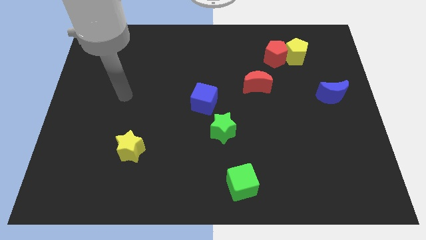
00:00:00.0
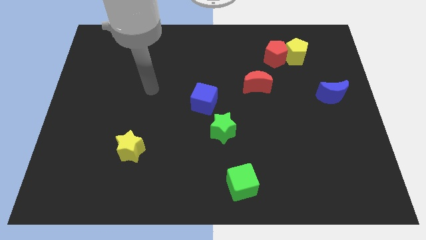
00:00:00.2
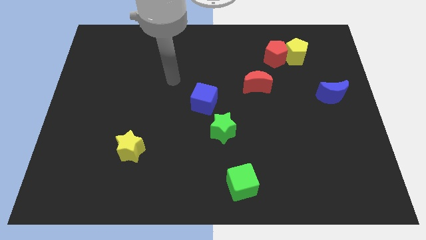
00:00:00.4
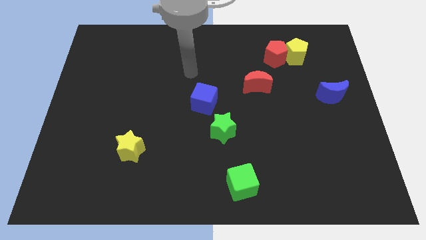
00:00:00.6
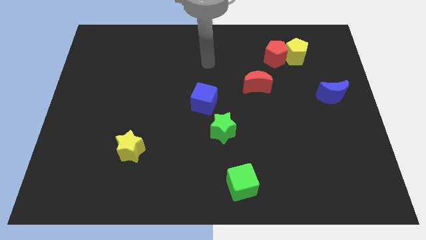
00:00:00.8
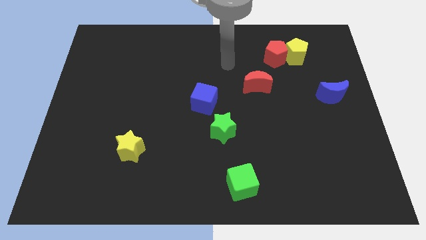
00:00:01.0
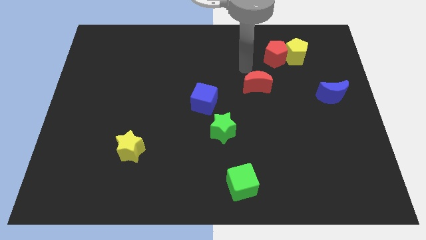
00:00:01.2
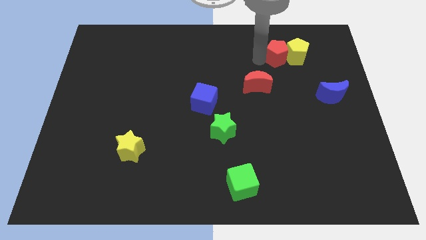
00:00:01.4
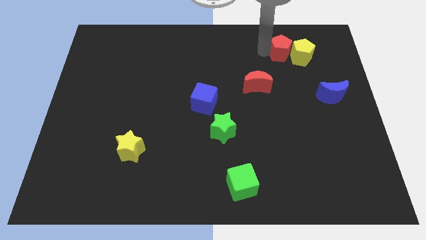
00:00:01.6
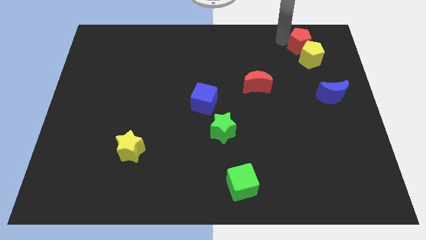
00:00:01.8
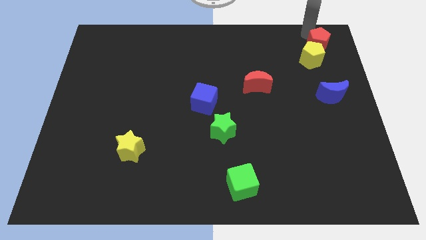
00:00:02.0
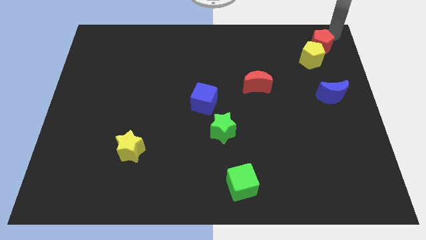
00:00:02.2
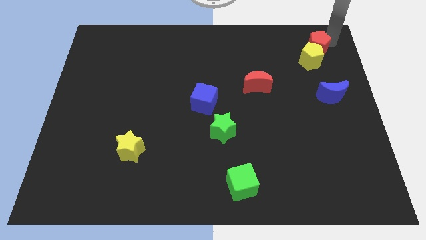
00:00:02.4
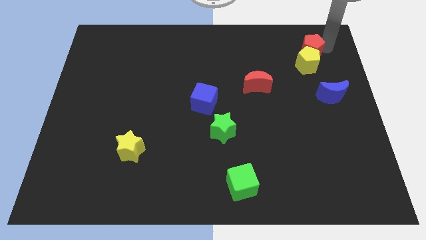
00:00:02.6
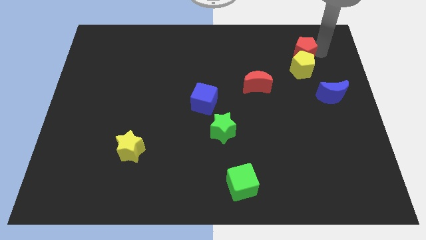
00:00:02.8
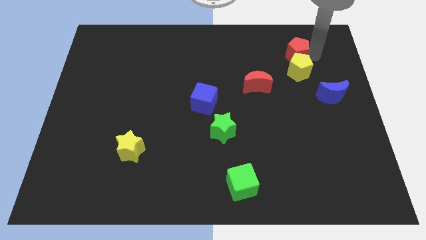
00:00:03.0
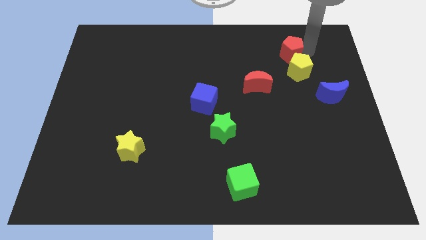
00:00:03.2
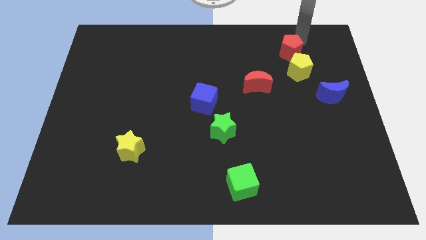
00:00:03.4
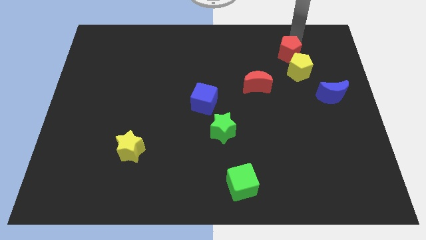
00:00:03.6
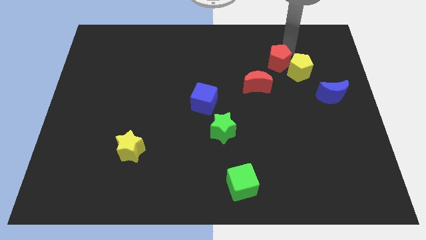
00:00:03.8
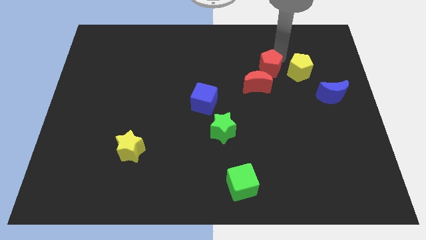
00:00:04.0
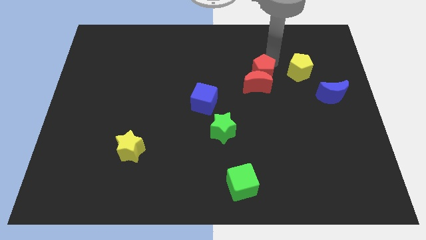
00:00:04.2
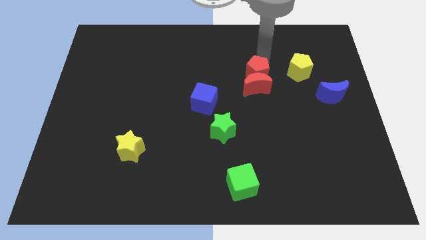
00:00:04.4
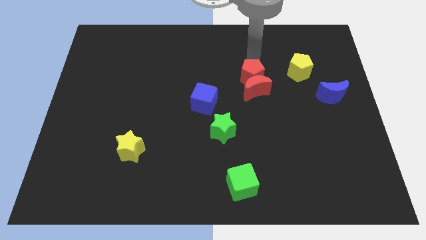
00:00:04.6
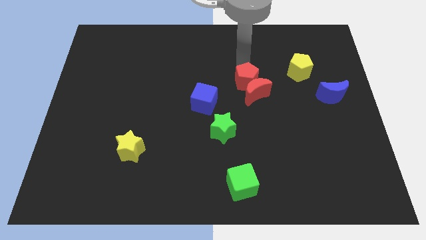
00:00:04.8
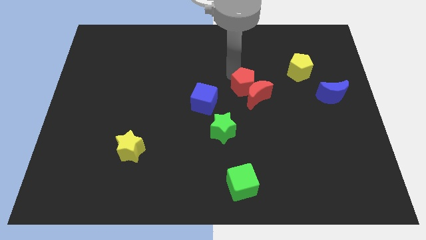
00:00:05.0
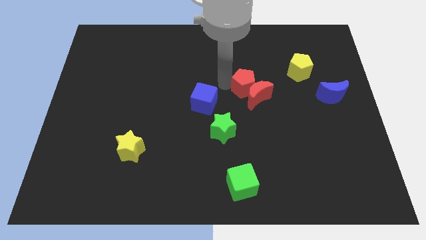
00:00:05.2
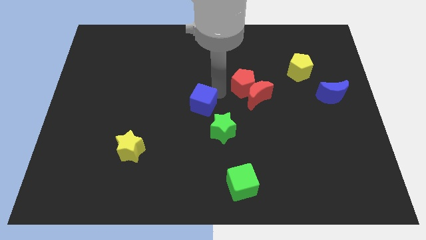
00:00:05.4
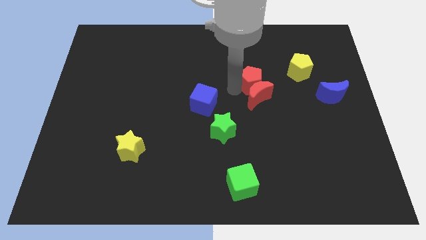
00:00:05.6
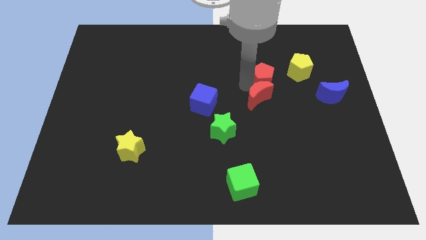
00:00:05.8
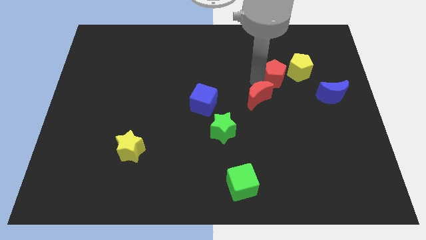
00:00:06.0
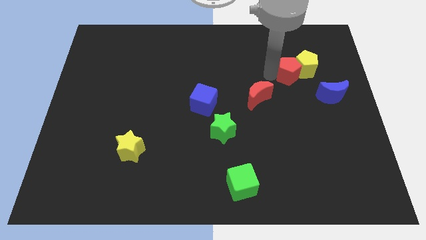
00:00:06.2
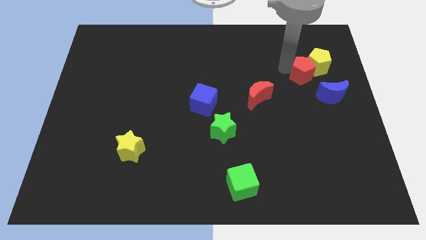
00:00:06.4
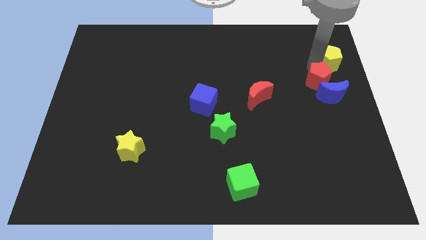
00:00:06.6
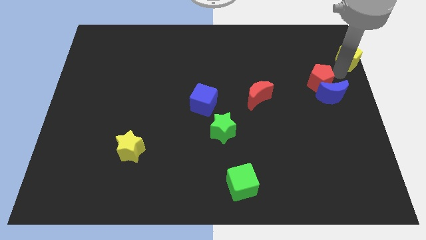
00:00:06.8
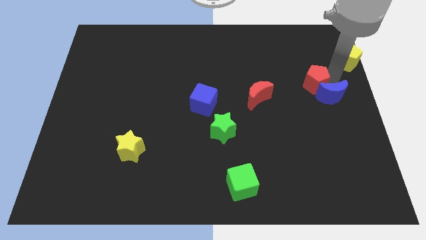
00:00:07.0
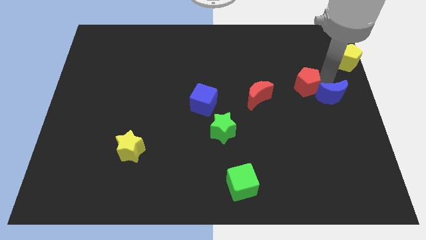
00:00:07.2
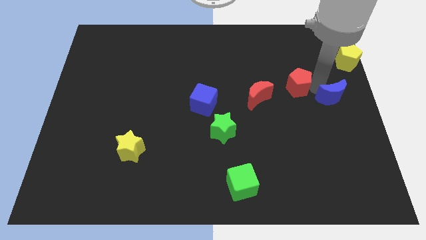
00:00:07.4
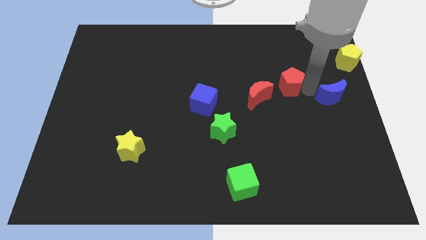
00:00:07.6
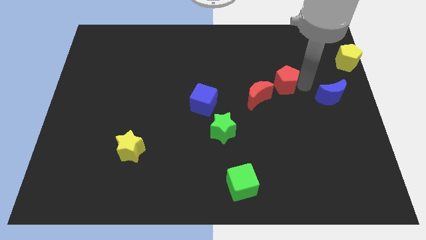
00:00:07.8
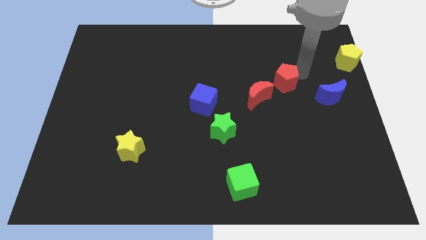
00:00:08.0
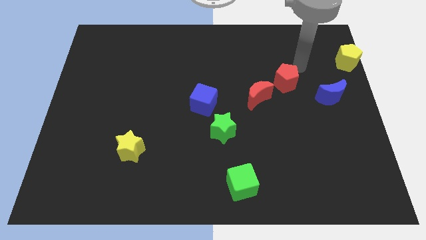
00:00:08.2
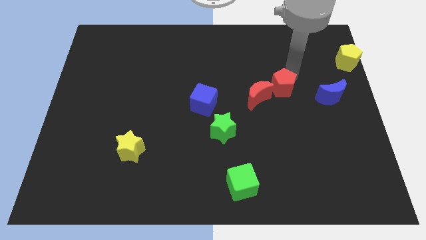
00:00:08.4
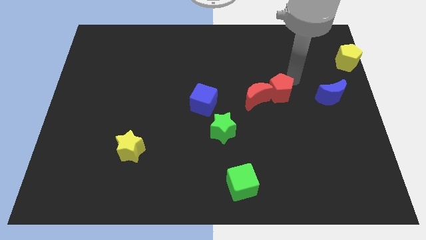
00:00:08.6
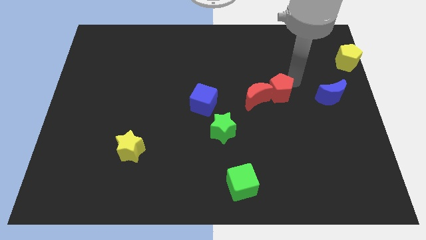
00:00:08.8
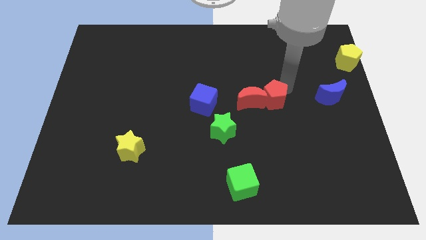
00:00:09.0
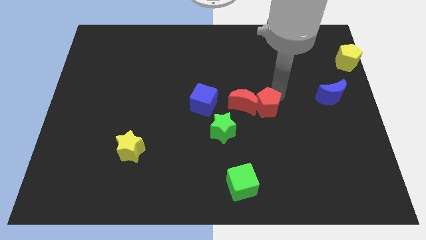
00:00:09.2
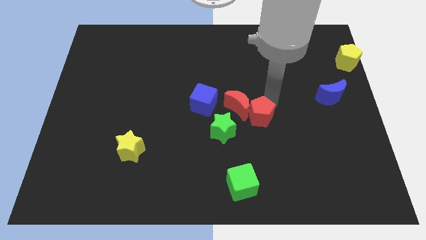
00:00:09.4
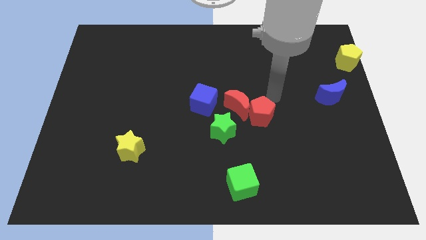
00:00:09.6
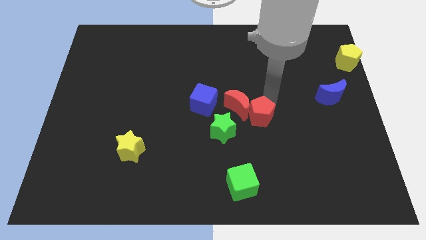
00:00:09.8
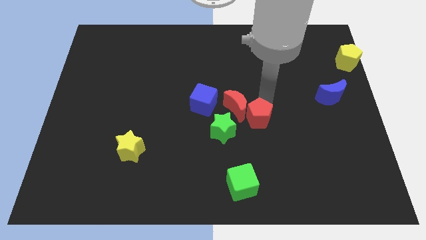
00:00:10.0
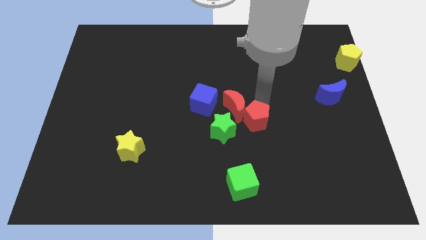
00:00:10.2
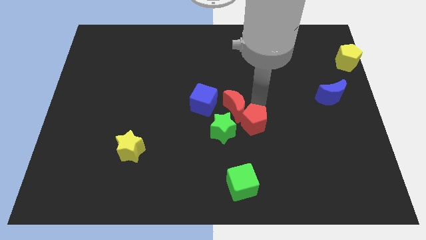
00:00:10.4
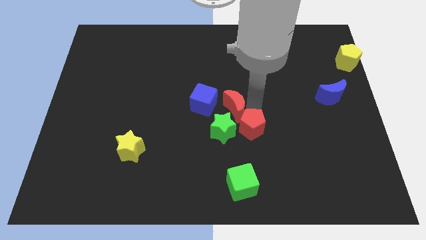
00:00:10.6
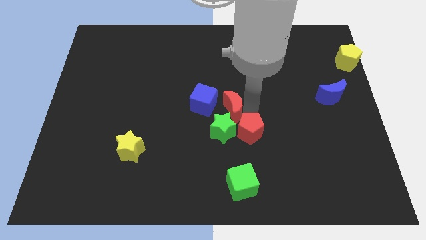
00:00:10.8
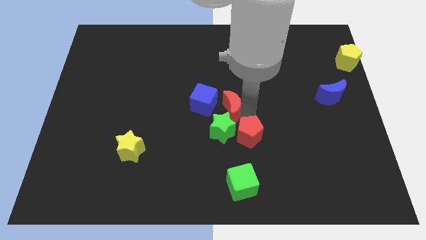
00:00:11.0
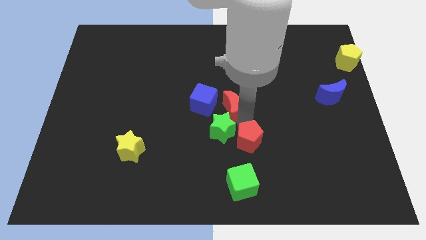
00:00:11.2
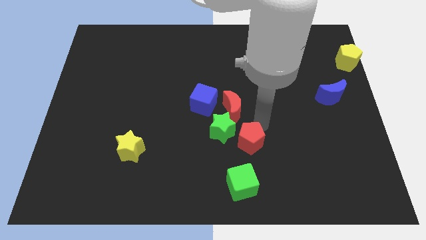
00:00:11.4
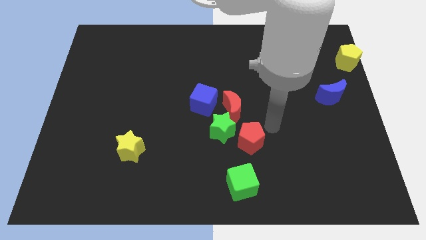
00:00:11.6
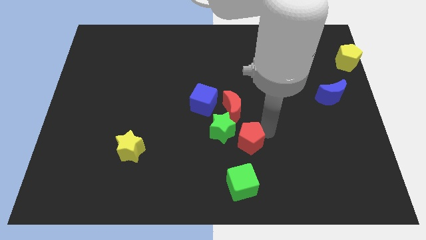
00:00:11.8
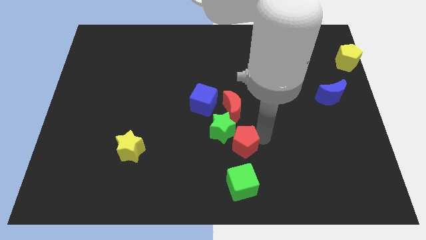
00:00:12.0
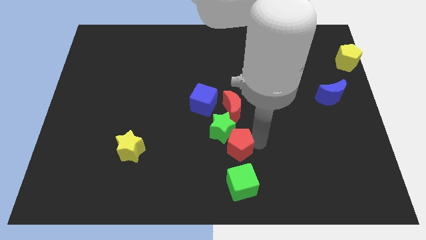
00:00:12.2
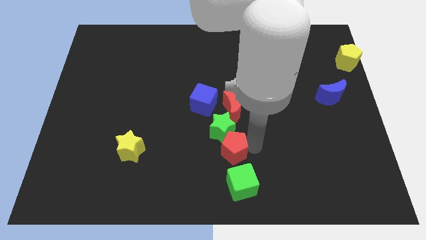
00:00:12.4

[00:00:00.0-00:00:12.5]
move the red pentagon diagonally up and to the left of the green cube

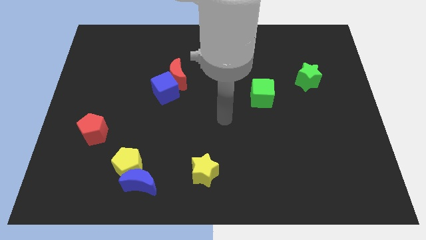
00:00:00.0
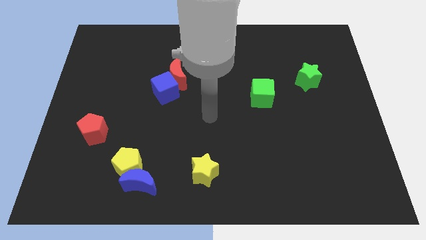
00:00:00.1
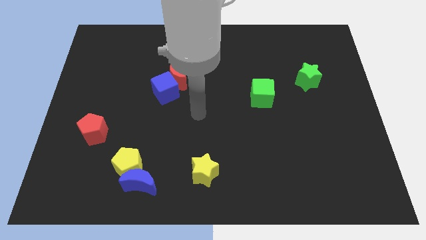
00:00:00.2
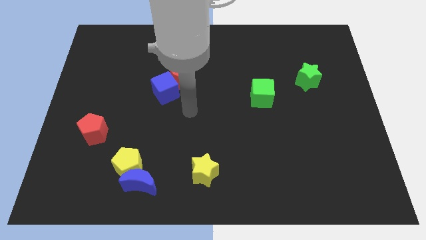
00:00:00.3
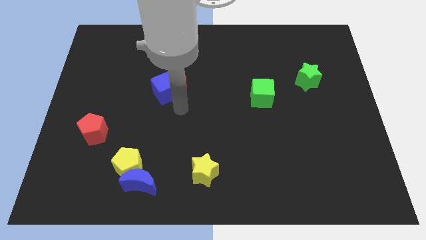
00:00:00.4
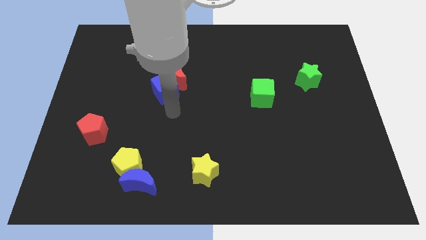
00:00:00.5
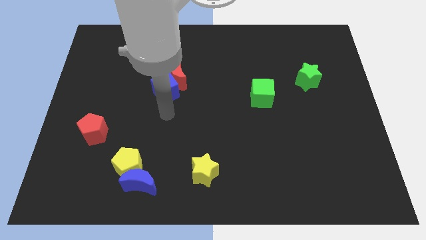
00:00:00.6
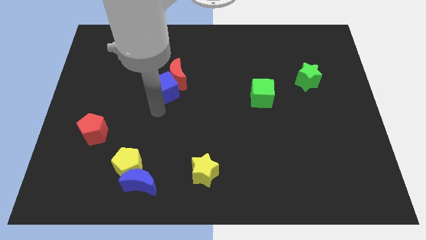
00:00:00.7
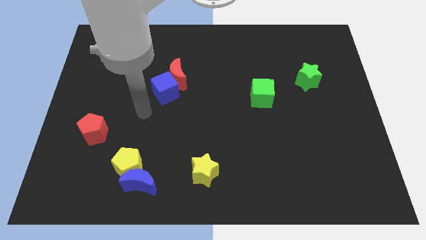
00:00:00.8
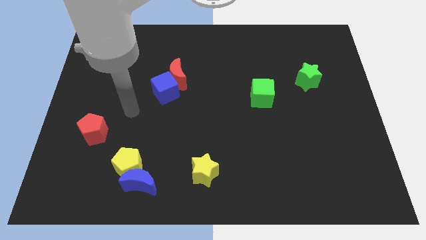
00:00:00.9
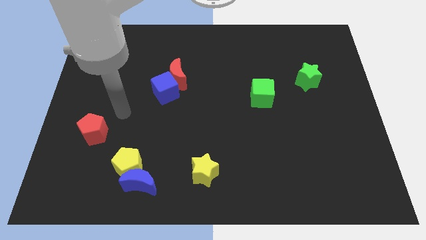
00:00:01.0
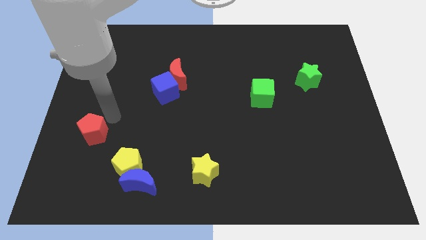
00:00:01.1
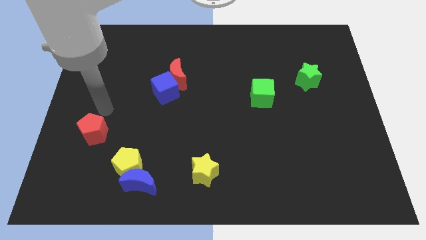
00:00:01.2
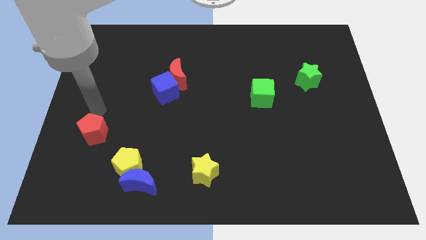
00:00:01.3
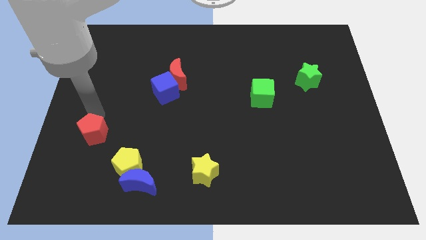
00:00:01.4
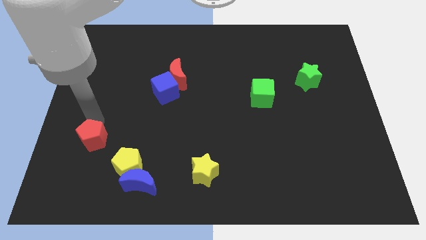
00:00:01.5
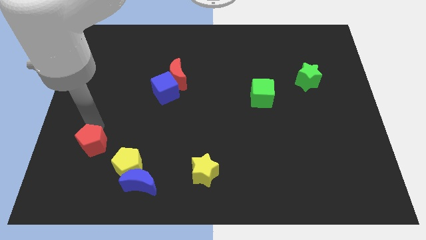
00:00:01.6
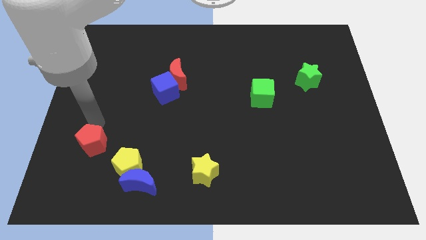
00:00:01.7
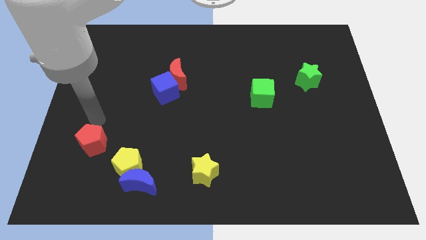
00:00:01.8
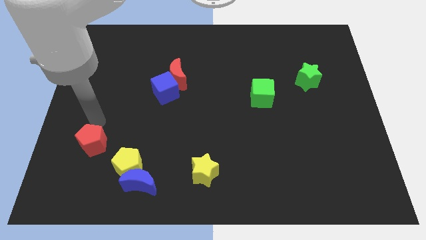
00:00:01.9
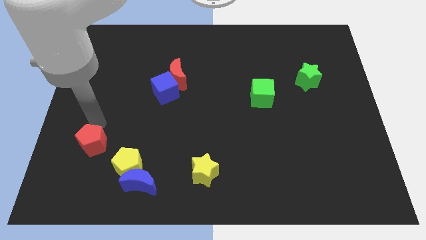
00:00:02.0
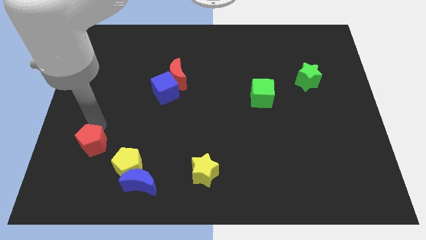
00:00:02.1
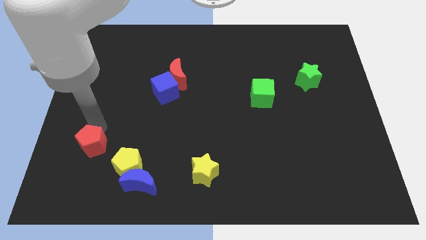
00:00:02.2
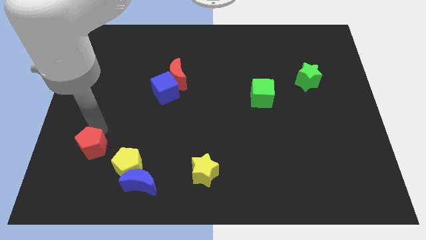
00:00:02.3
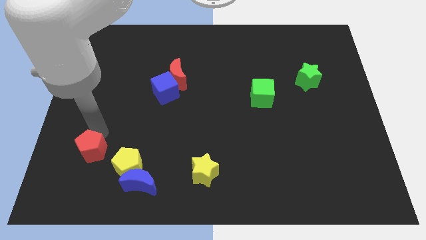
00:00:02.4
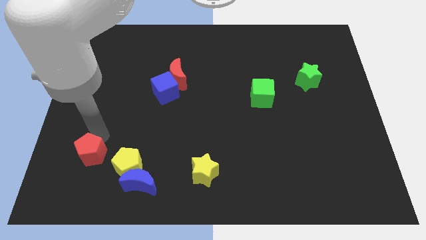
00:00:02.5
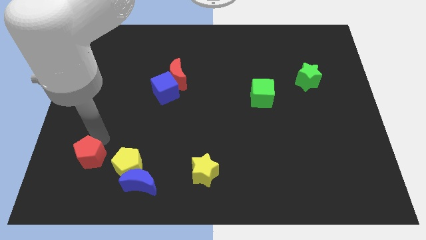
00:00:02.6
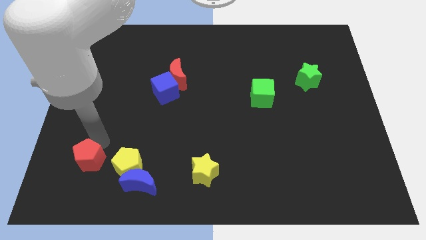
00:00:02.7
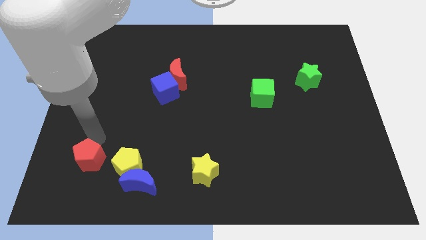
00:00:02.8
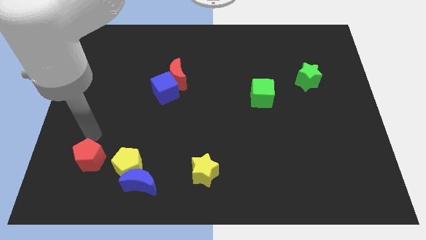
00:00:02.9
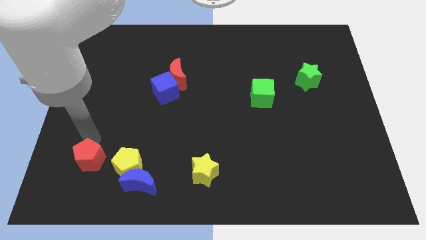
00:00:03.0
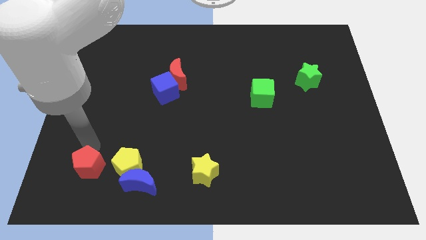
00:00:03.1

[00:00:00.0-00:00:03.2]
slide the red pentagon left of the blue moon
